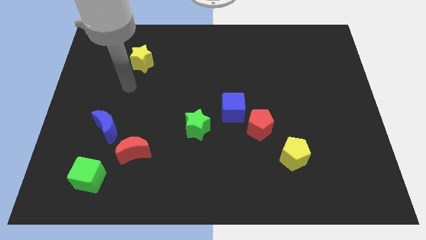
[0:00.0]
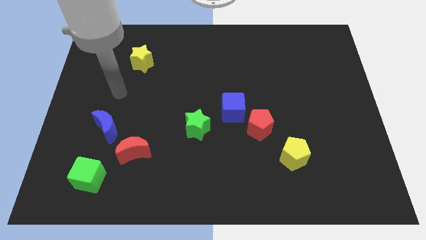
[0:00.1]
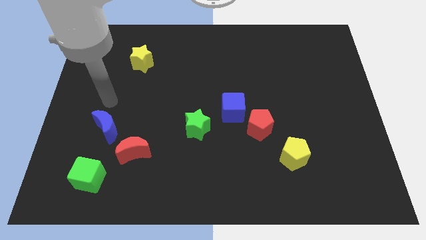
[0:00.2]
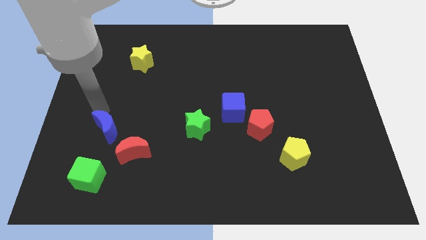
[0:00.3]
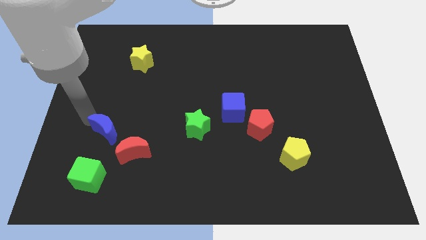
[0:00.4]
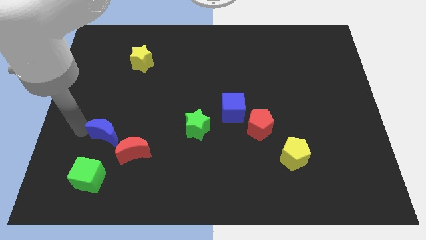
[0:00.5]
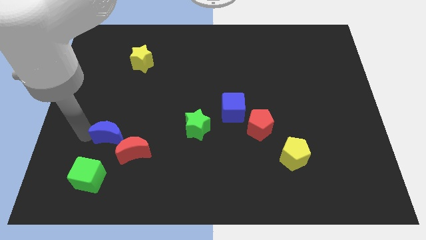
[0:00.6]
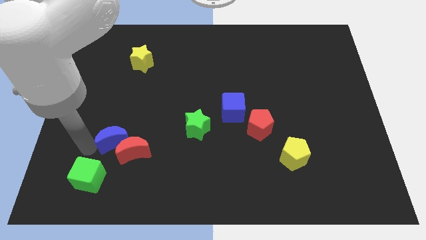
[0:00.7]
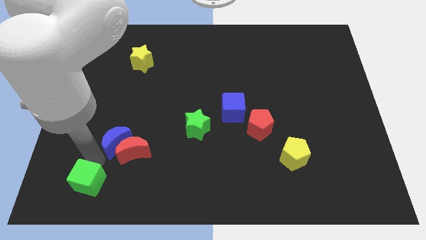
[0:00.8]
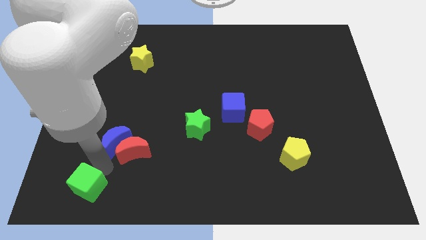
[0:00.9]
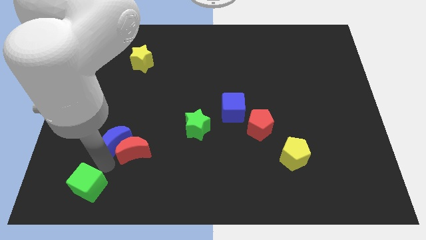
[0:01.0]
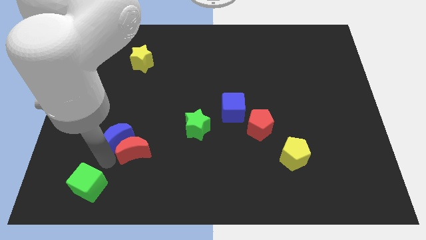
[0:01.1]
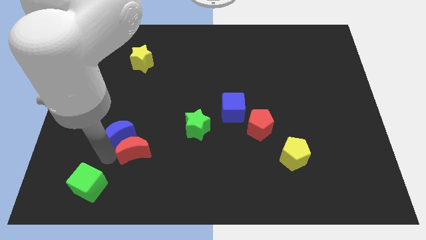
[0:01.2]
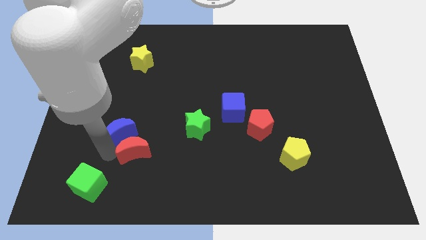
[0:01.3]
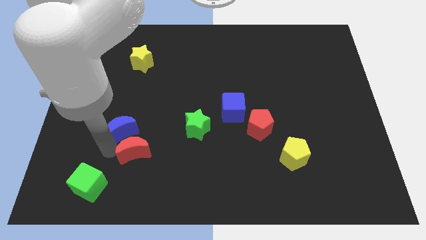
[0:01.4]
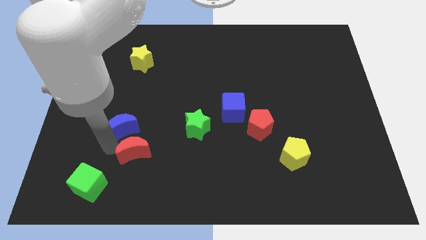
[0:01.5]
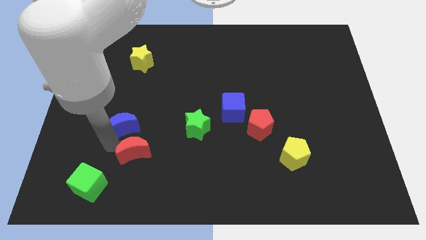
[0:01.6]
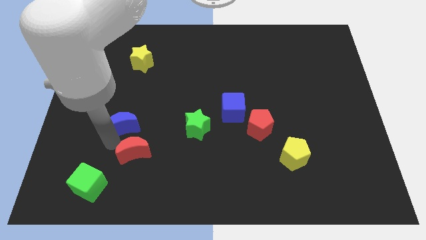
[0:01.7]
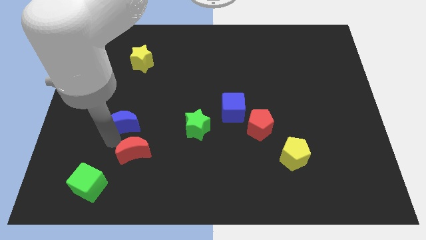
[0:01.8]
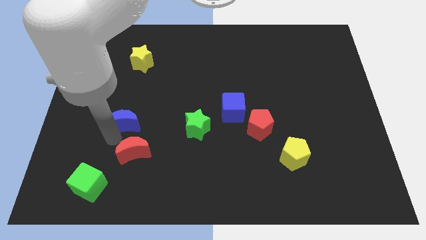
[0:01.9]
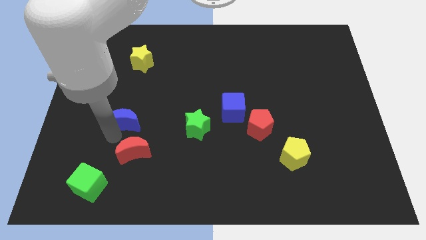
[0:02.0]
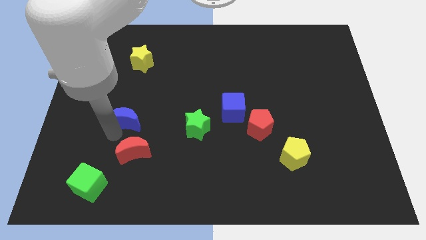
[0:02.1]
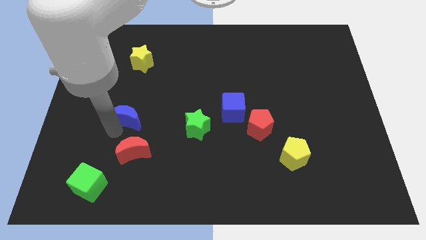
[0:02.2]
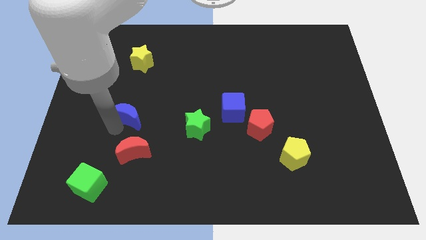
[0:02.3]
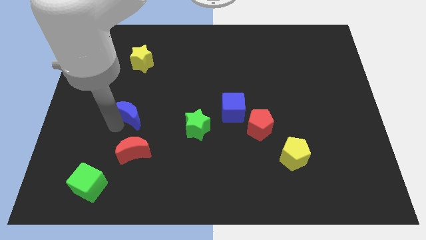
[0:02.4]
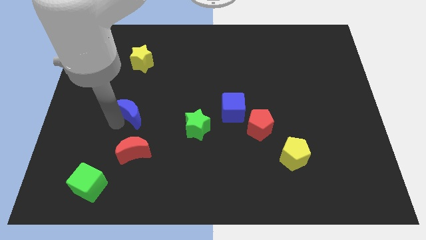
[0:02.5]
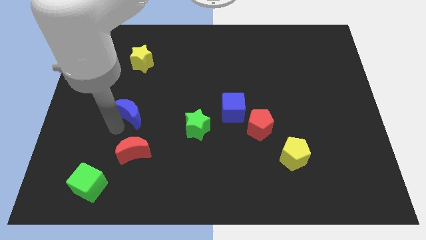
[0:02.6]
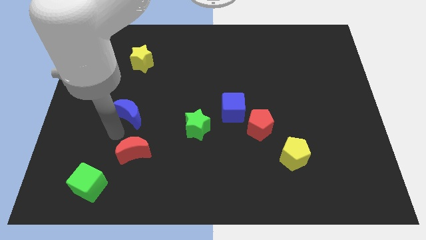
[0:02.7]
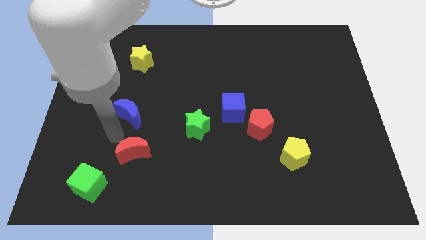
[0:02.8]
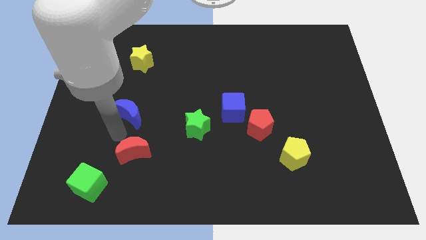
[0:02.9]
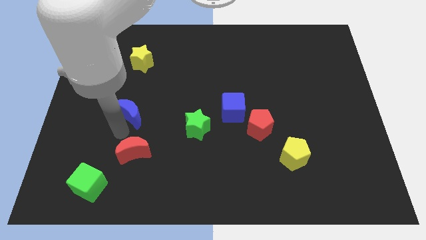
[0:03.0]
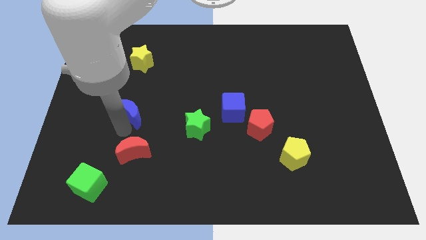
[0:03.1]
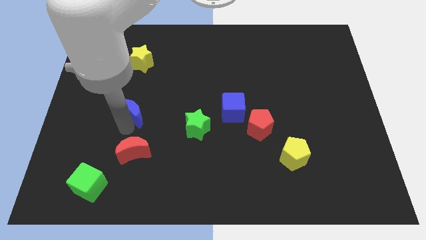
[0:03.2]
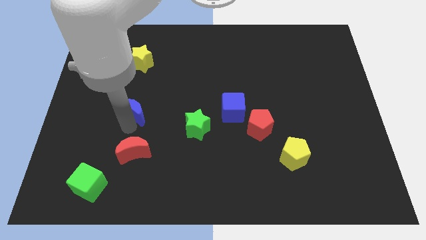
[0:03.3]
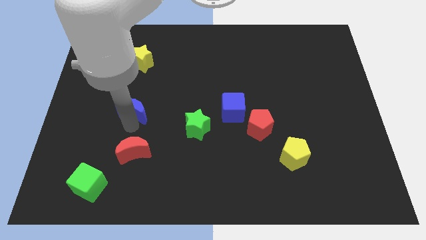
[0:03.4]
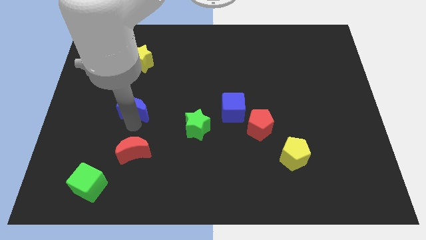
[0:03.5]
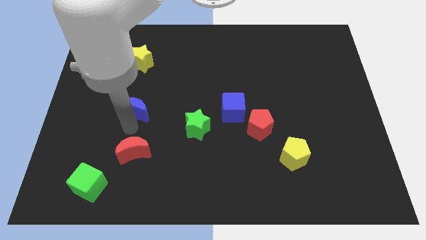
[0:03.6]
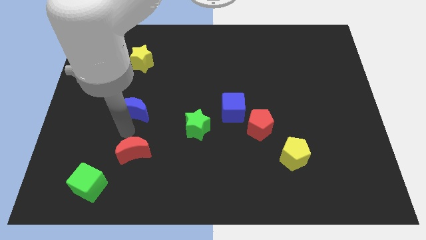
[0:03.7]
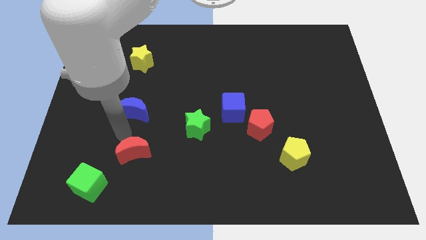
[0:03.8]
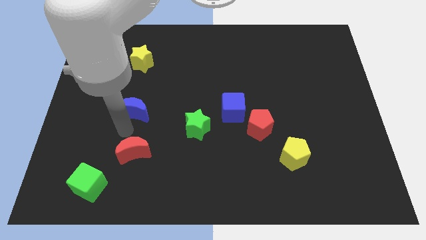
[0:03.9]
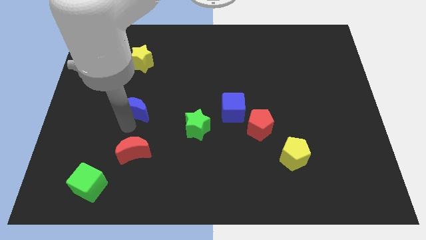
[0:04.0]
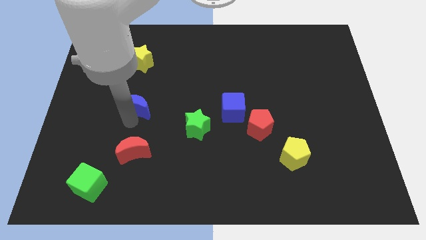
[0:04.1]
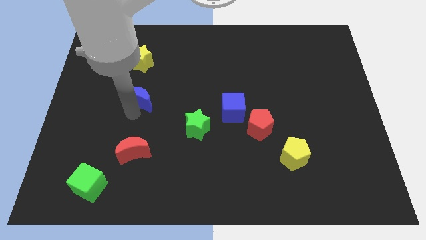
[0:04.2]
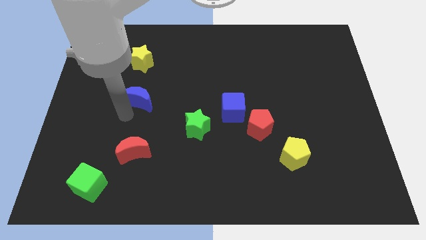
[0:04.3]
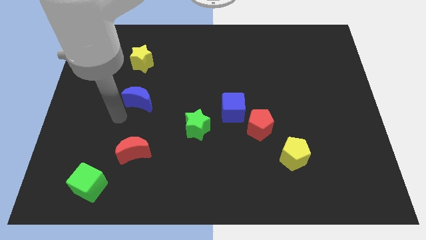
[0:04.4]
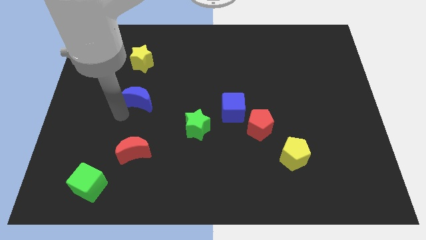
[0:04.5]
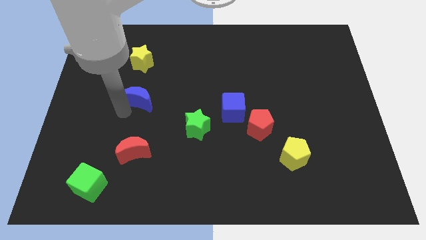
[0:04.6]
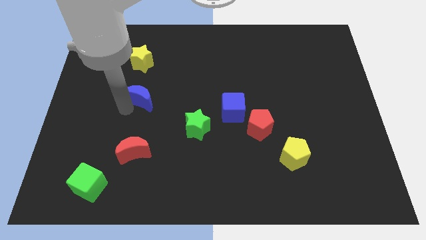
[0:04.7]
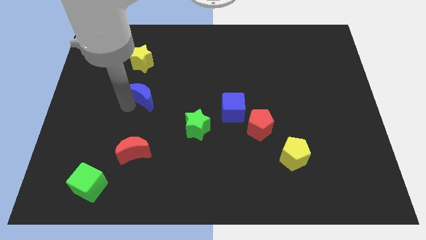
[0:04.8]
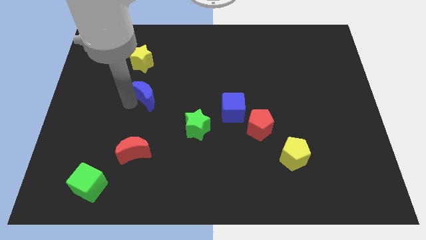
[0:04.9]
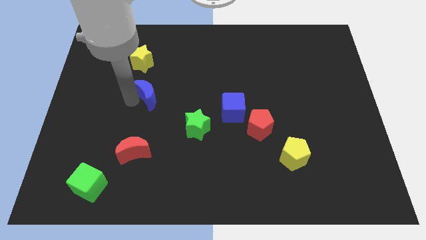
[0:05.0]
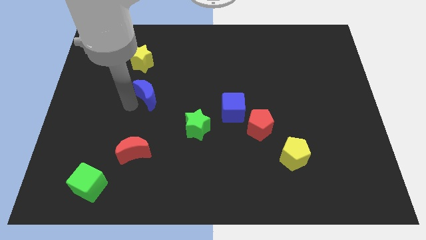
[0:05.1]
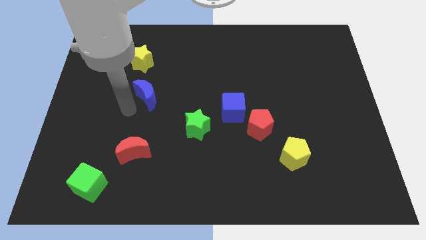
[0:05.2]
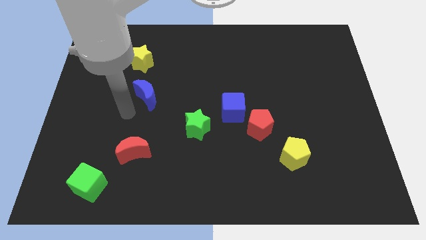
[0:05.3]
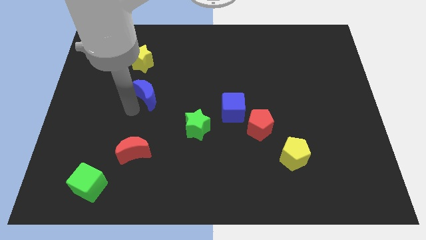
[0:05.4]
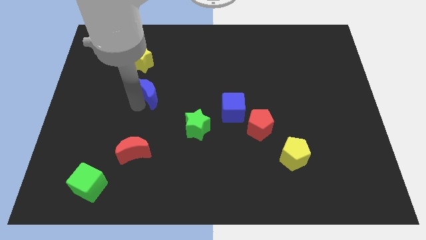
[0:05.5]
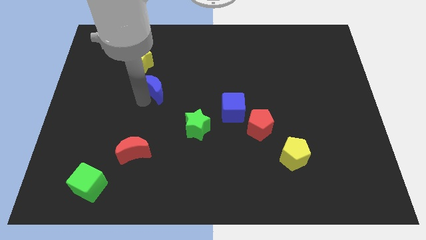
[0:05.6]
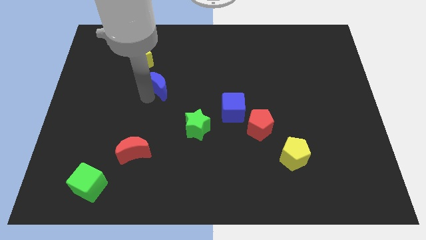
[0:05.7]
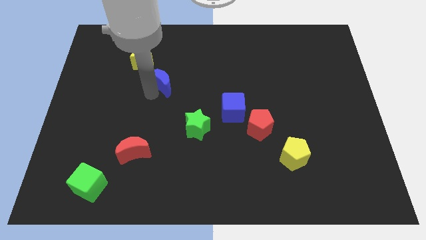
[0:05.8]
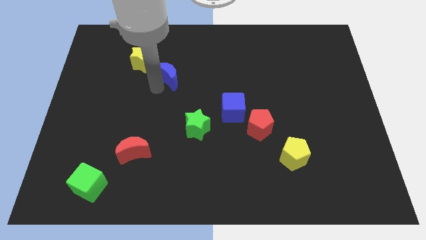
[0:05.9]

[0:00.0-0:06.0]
slide the blue moon diagonally up and right

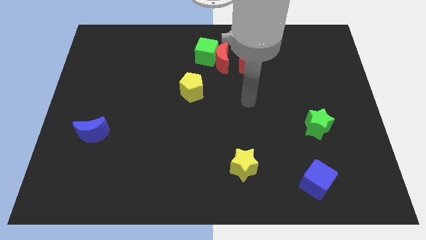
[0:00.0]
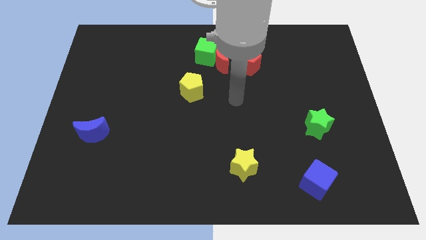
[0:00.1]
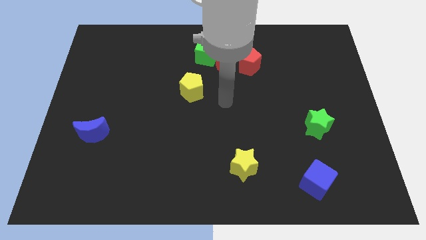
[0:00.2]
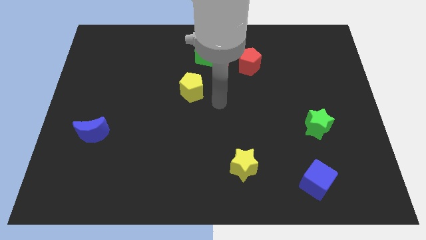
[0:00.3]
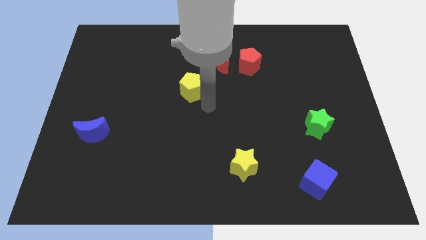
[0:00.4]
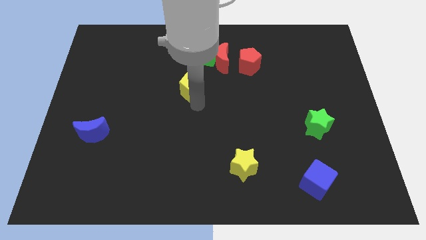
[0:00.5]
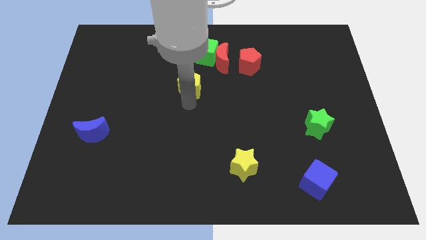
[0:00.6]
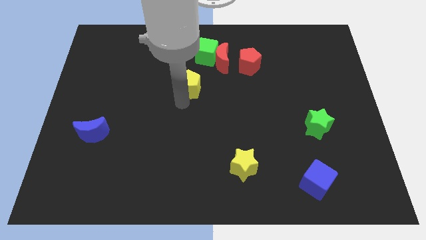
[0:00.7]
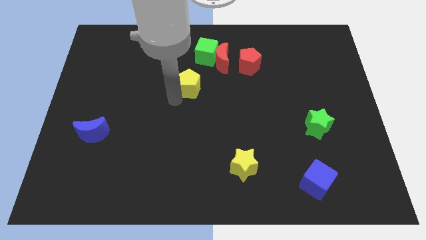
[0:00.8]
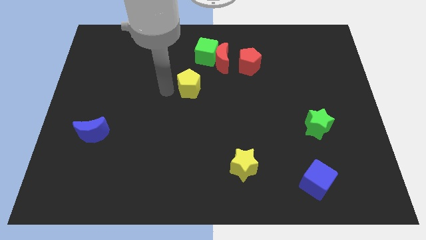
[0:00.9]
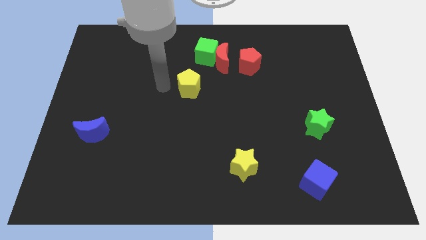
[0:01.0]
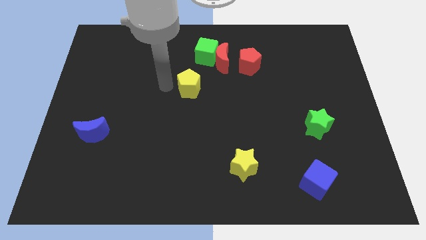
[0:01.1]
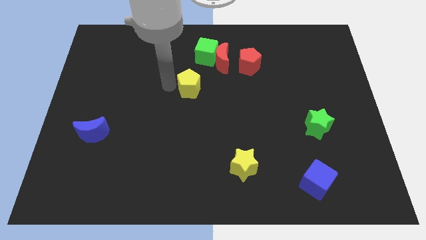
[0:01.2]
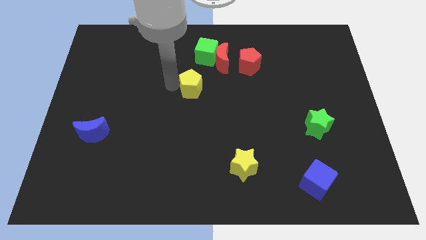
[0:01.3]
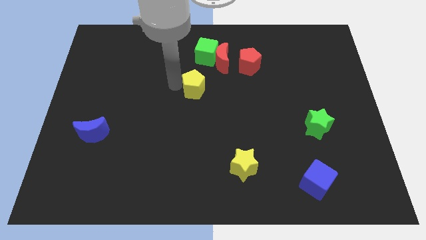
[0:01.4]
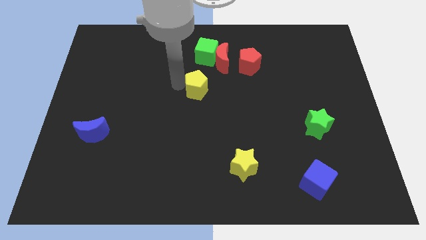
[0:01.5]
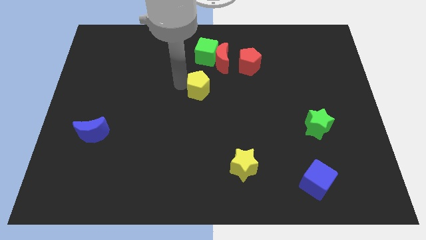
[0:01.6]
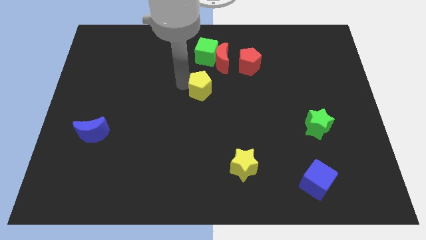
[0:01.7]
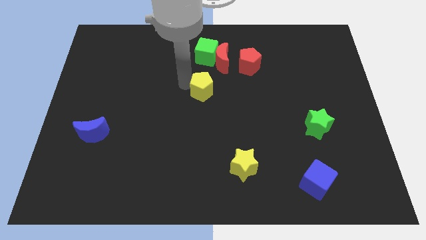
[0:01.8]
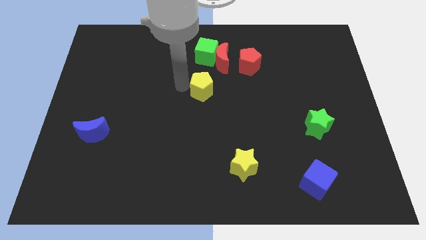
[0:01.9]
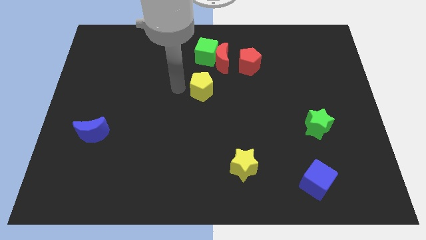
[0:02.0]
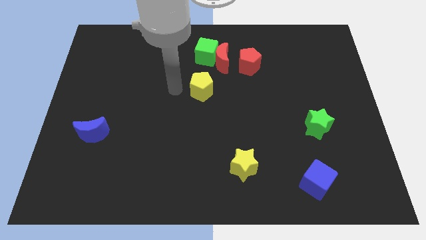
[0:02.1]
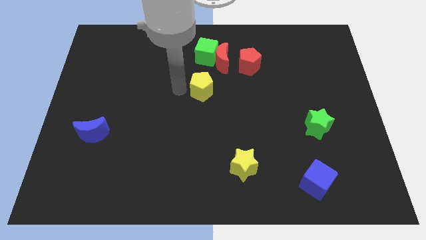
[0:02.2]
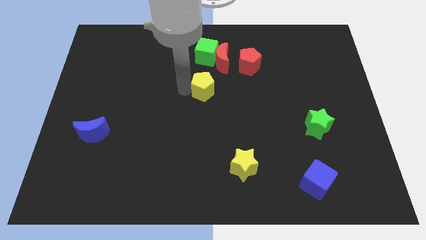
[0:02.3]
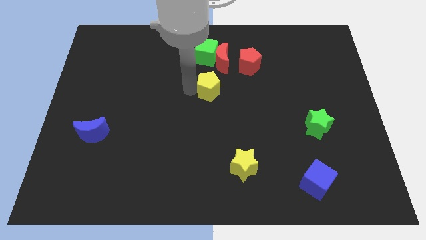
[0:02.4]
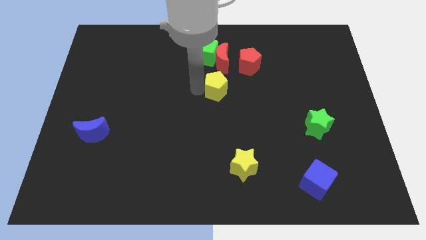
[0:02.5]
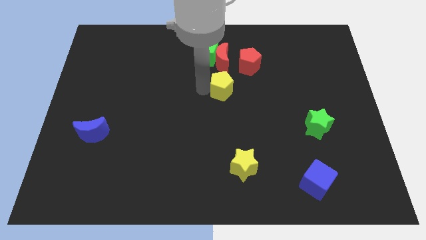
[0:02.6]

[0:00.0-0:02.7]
slightly move the yellow pentagon to the right

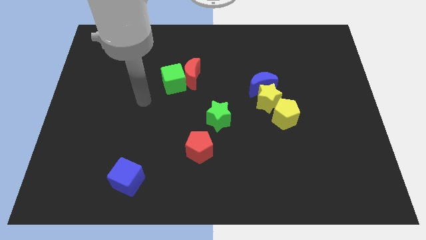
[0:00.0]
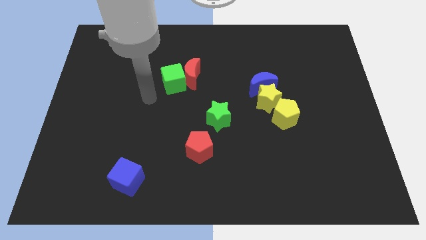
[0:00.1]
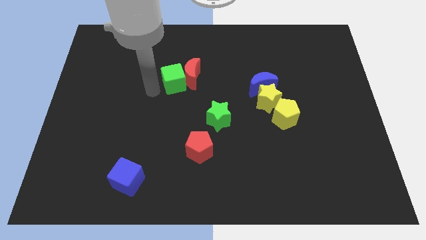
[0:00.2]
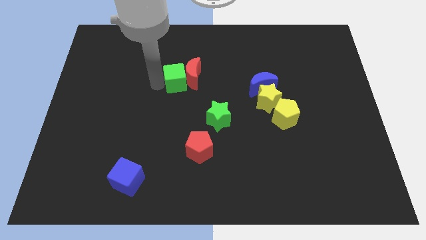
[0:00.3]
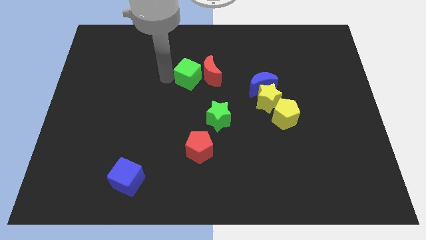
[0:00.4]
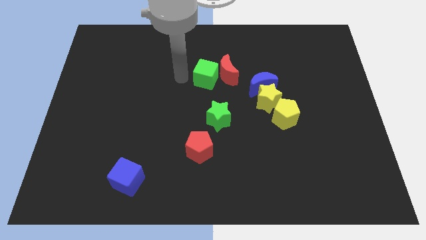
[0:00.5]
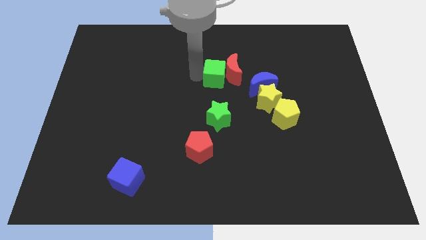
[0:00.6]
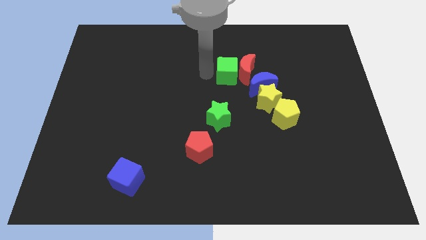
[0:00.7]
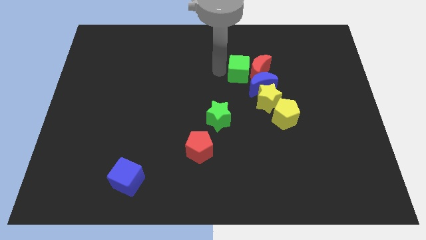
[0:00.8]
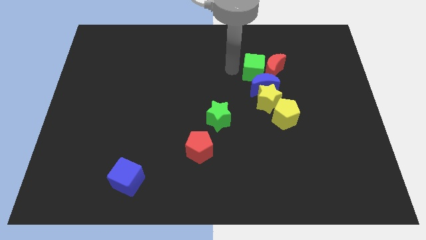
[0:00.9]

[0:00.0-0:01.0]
slide the red moon right
